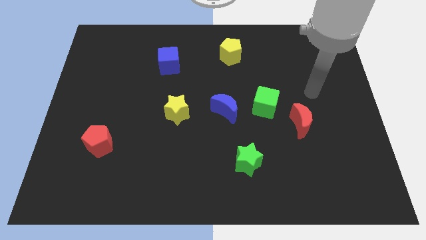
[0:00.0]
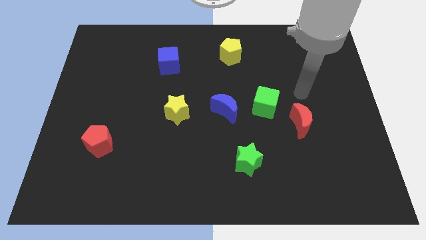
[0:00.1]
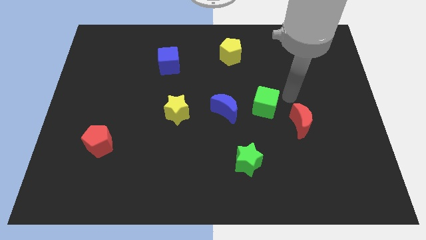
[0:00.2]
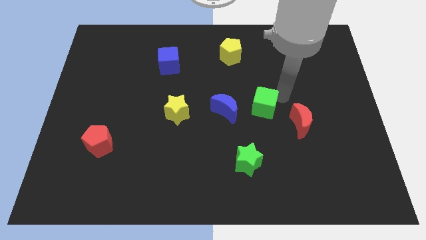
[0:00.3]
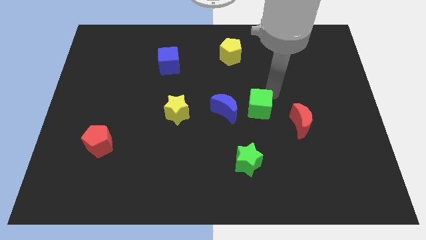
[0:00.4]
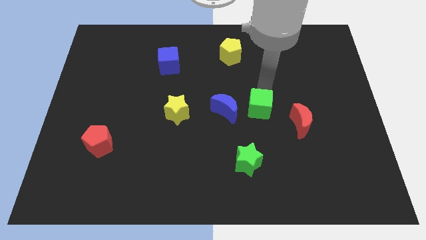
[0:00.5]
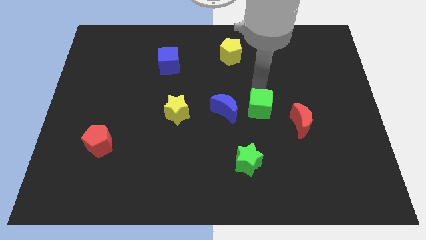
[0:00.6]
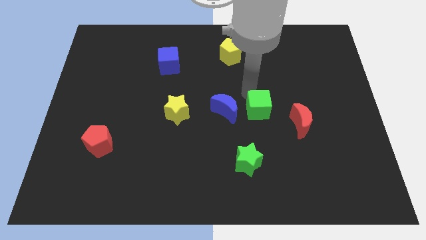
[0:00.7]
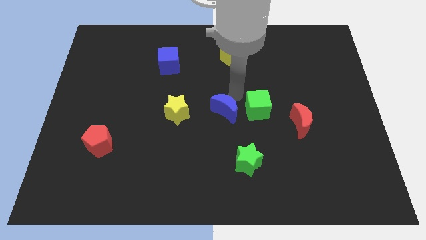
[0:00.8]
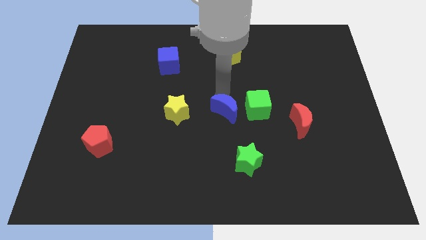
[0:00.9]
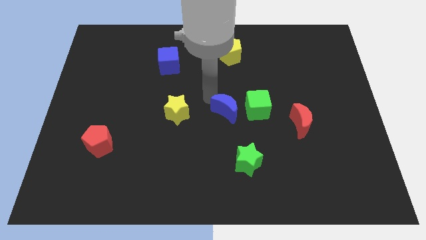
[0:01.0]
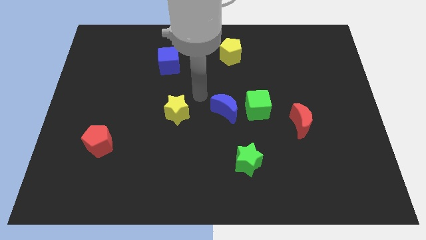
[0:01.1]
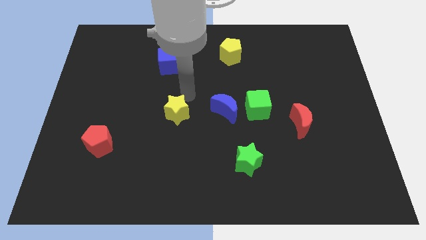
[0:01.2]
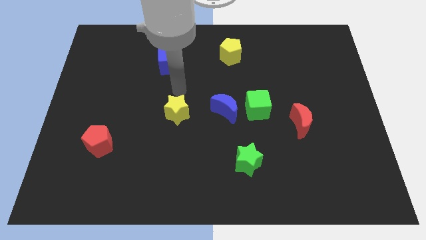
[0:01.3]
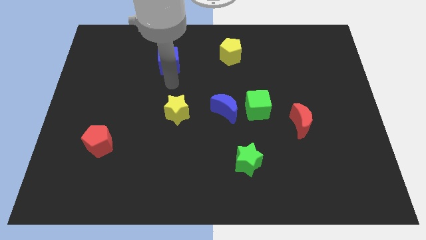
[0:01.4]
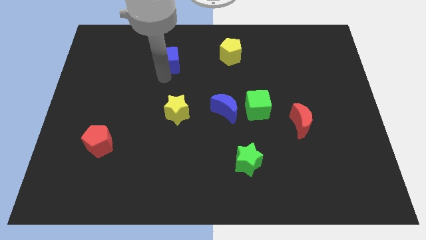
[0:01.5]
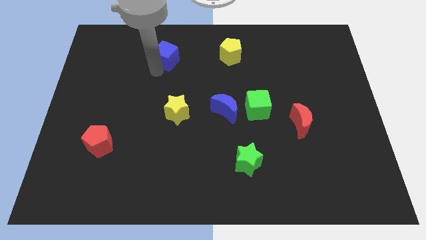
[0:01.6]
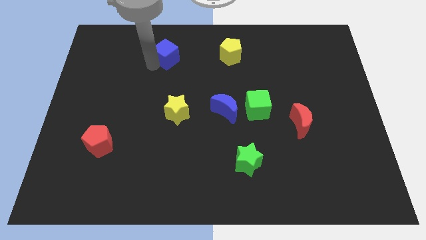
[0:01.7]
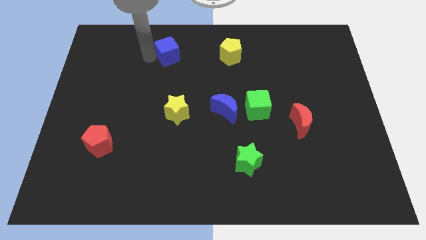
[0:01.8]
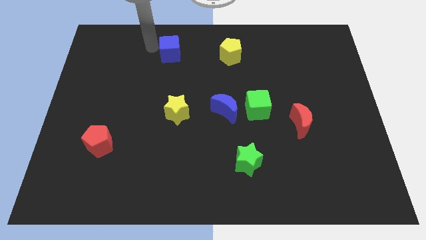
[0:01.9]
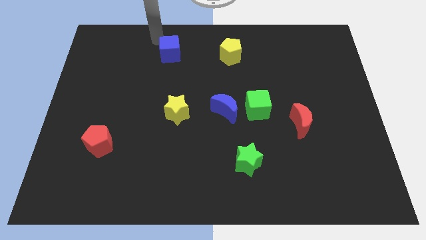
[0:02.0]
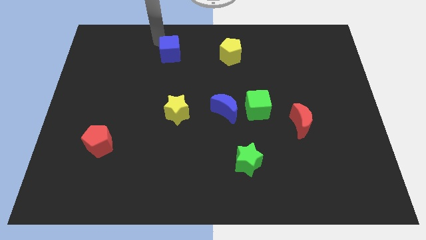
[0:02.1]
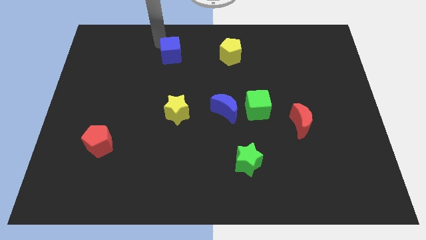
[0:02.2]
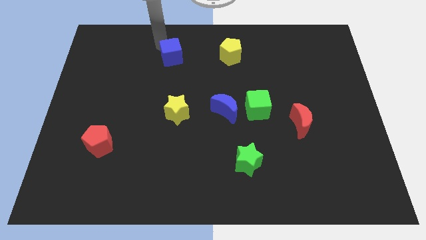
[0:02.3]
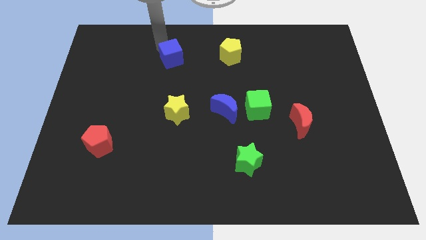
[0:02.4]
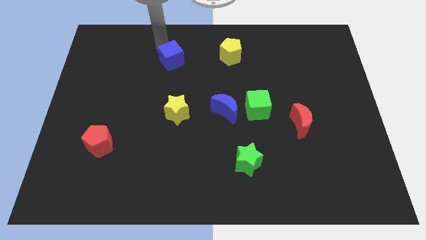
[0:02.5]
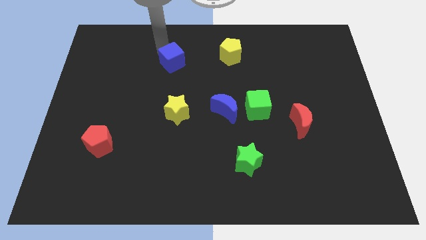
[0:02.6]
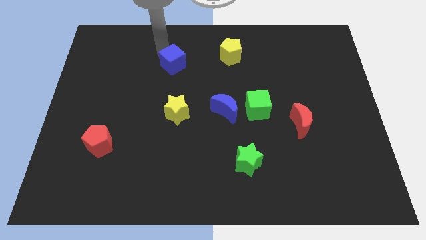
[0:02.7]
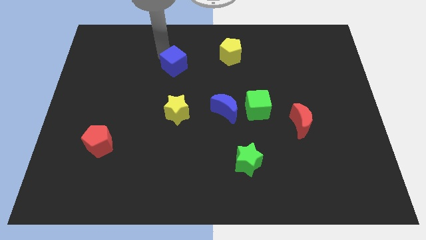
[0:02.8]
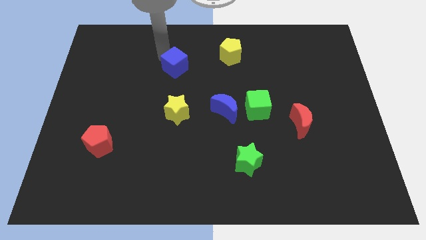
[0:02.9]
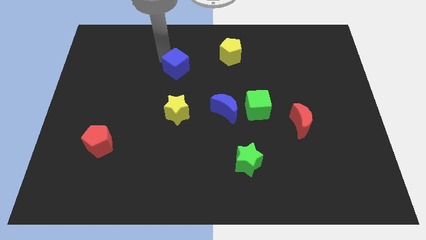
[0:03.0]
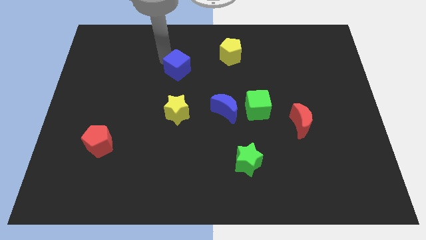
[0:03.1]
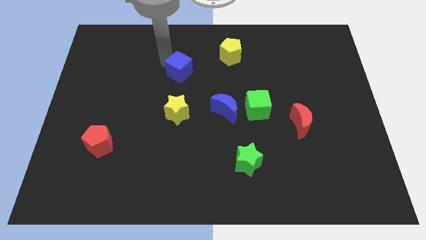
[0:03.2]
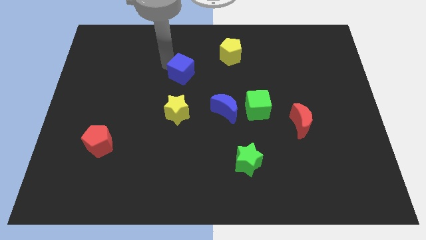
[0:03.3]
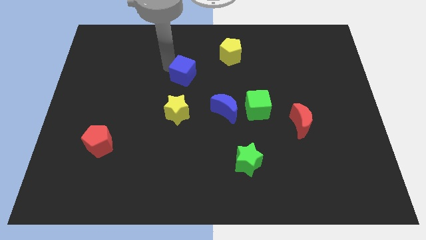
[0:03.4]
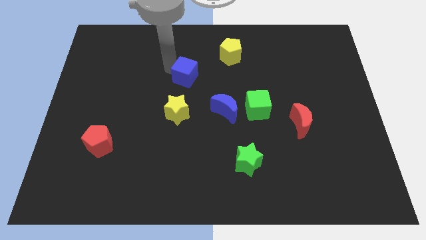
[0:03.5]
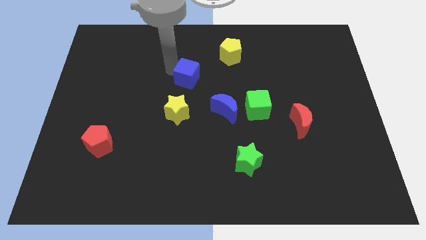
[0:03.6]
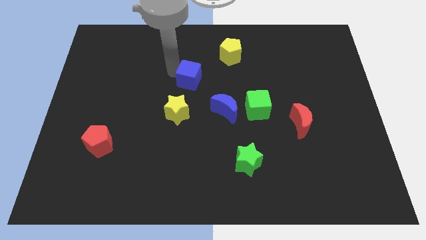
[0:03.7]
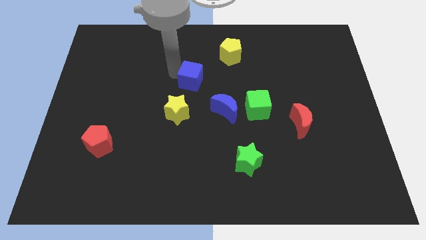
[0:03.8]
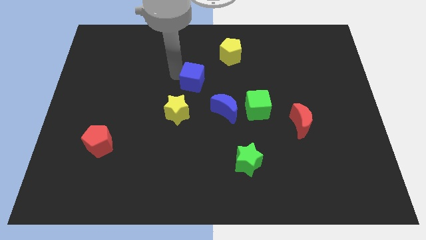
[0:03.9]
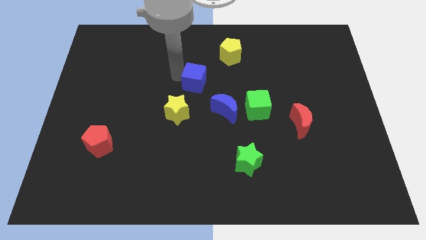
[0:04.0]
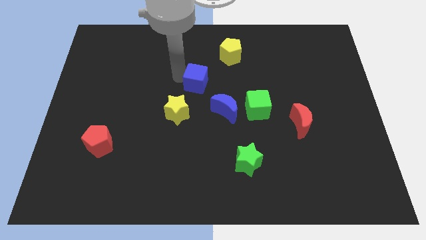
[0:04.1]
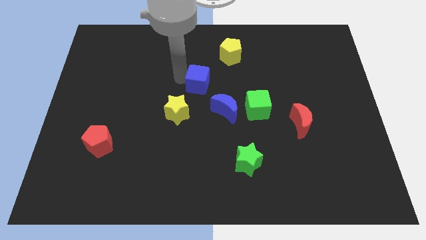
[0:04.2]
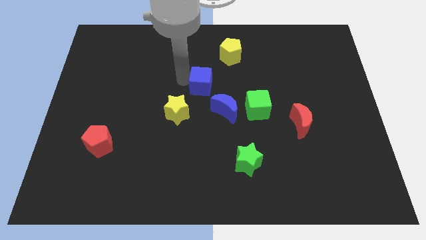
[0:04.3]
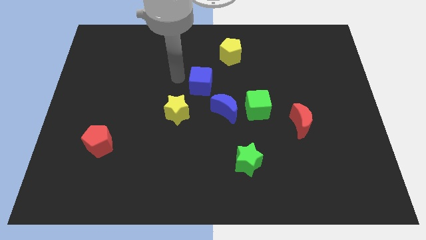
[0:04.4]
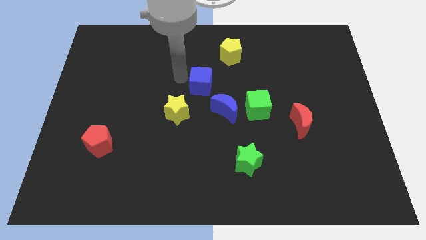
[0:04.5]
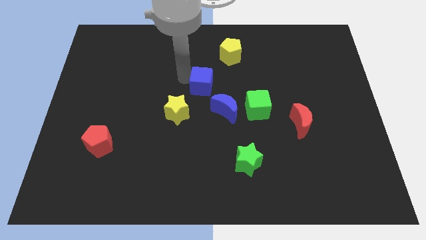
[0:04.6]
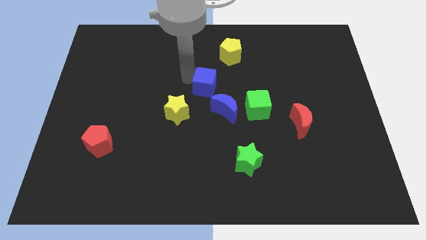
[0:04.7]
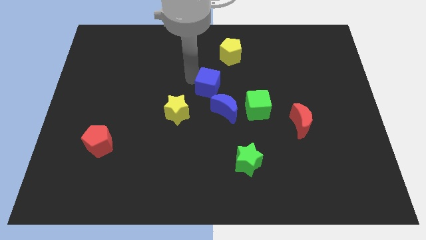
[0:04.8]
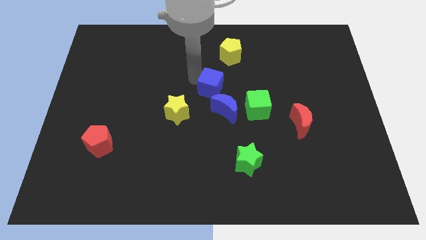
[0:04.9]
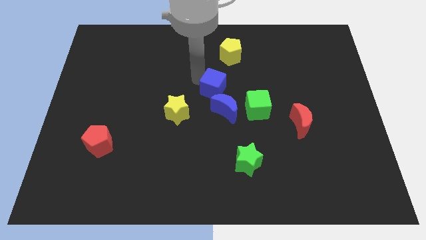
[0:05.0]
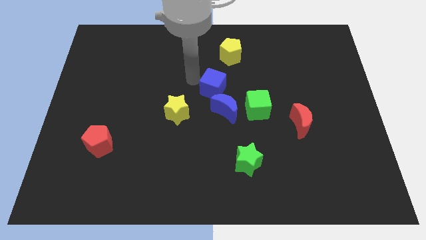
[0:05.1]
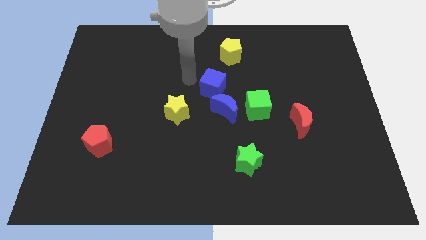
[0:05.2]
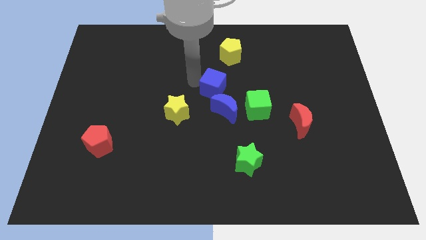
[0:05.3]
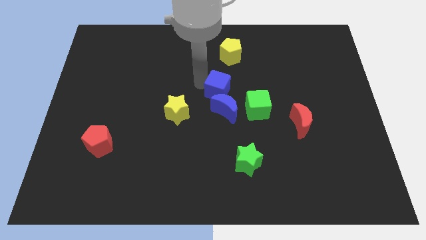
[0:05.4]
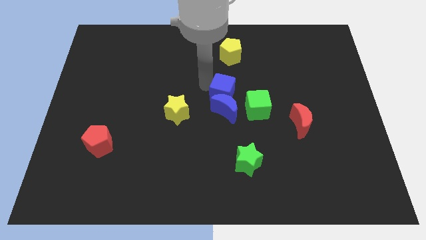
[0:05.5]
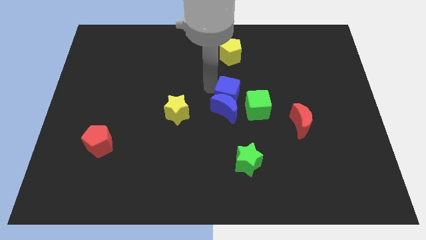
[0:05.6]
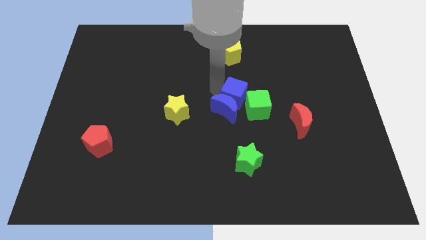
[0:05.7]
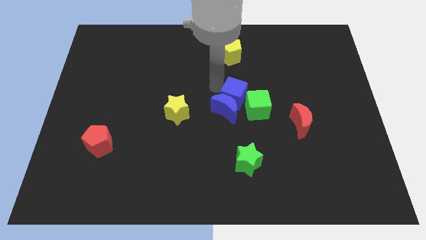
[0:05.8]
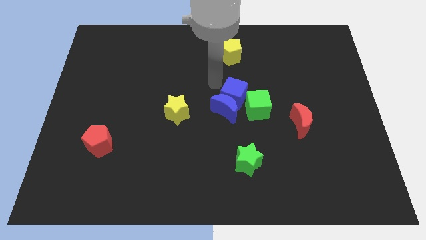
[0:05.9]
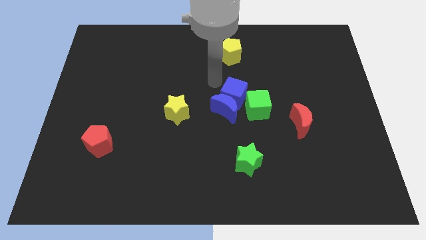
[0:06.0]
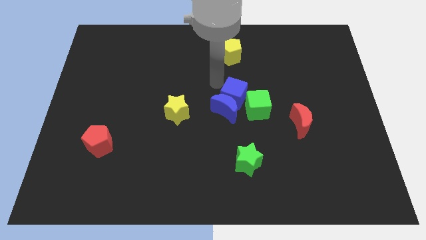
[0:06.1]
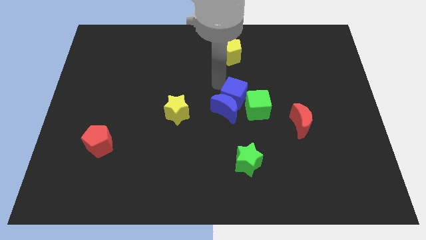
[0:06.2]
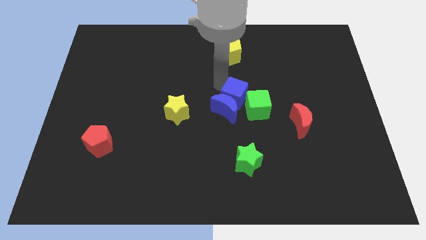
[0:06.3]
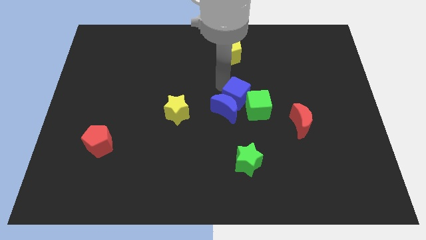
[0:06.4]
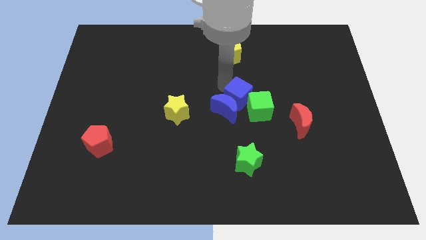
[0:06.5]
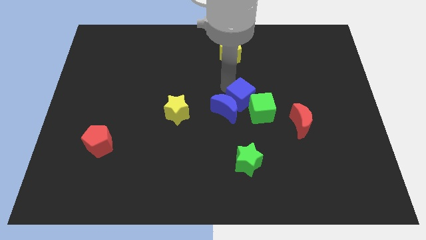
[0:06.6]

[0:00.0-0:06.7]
slide the blue cube downwards and to the right

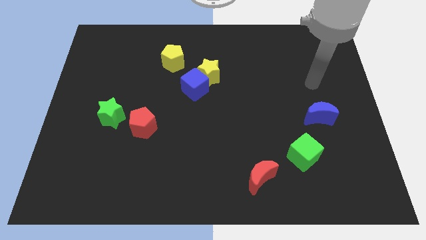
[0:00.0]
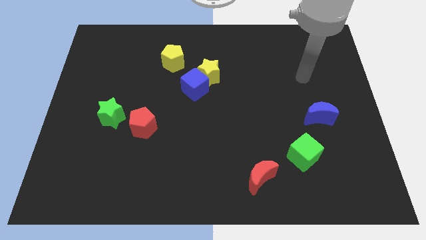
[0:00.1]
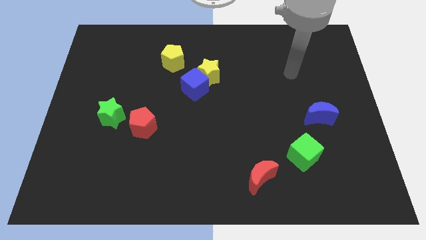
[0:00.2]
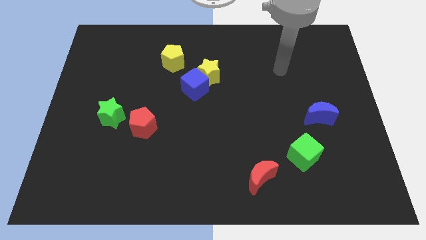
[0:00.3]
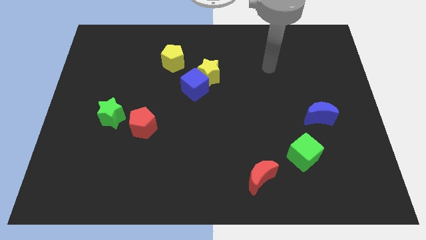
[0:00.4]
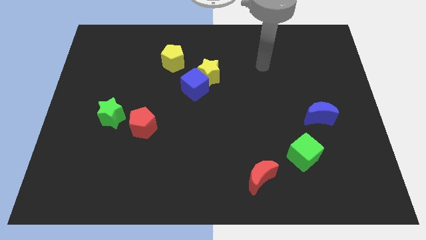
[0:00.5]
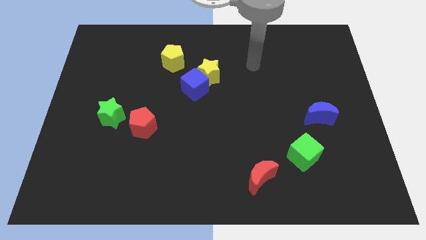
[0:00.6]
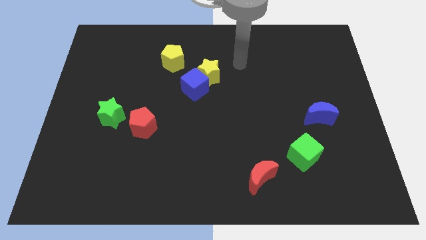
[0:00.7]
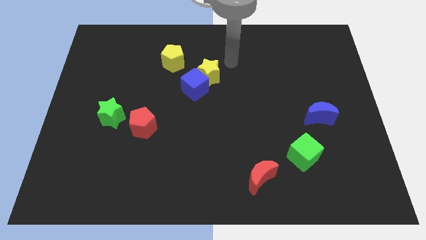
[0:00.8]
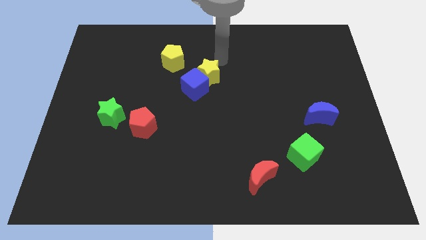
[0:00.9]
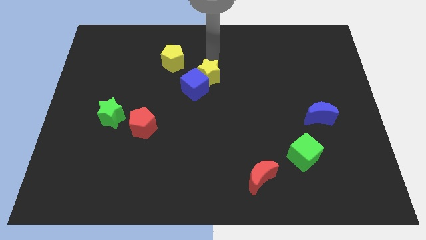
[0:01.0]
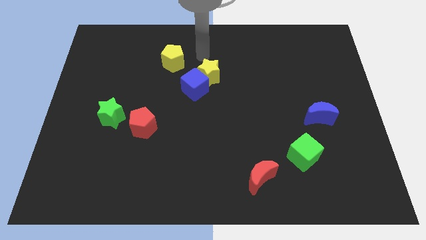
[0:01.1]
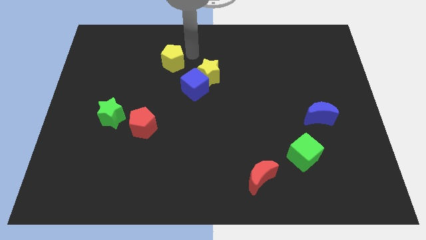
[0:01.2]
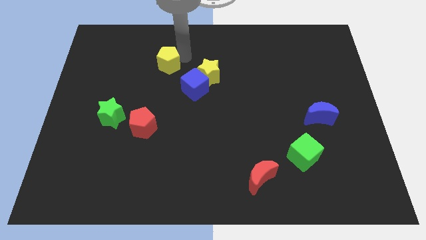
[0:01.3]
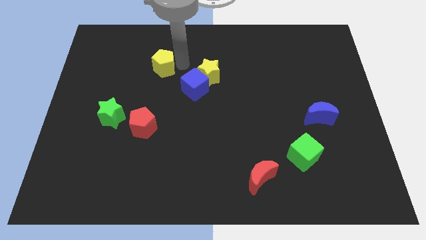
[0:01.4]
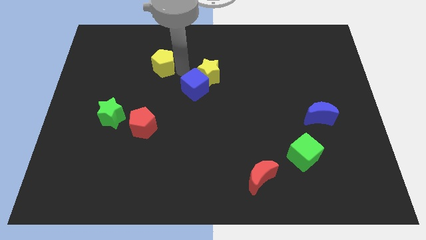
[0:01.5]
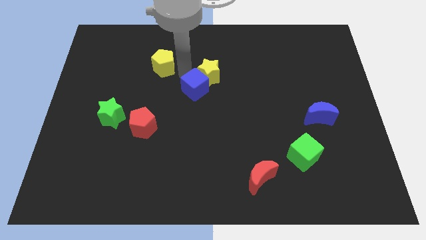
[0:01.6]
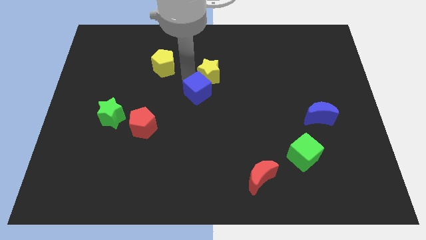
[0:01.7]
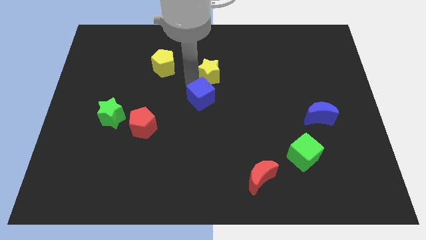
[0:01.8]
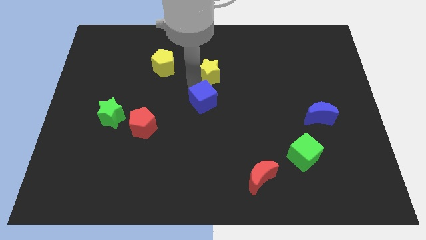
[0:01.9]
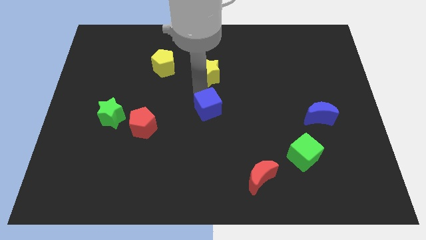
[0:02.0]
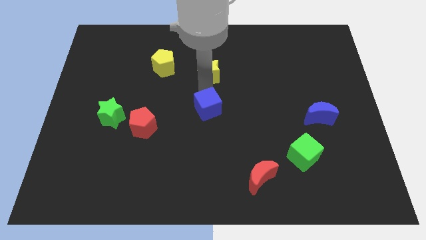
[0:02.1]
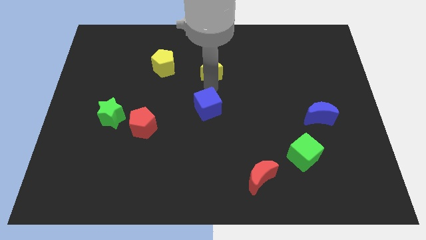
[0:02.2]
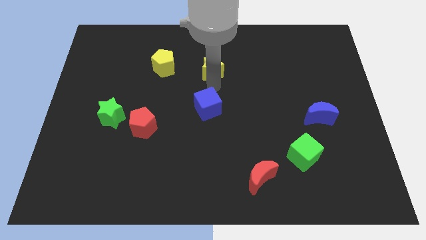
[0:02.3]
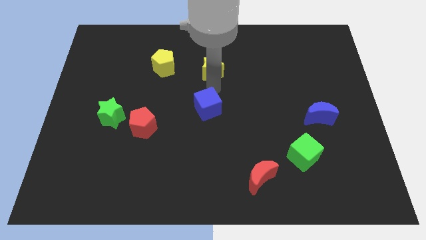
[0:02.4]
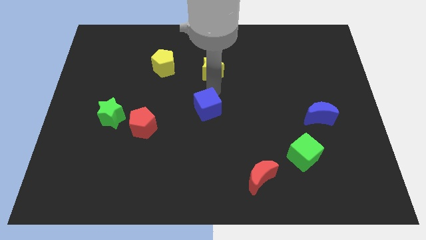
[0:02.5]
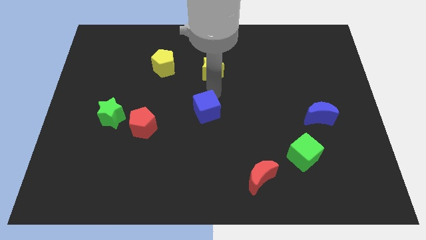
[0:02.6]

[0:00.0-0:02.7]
move the blue cube a bit down
